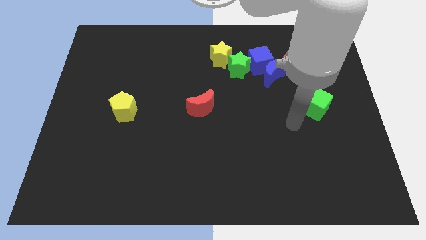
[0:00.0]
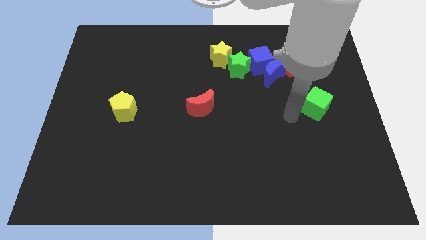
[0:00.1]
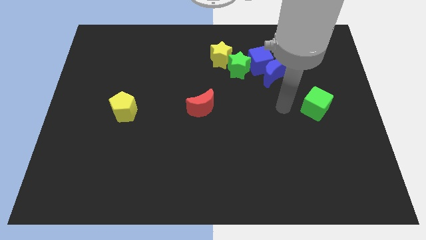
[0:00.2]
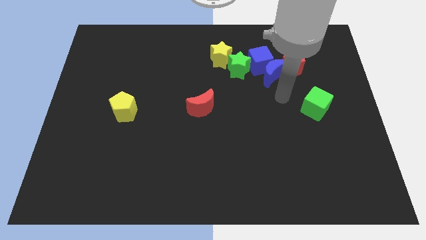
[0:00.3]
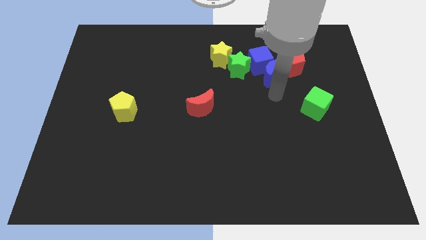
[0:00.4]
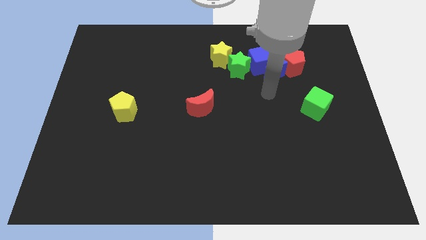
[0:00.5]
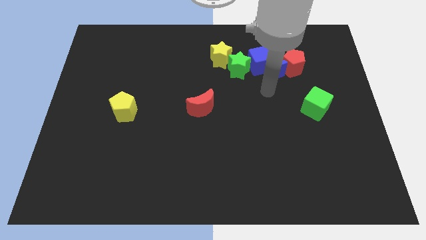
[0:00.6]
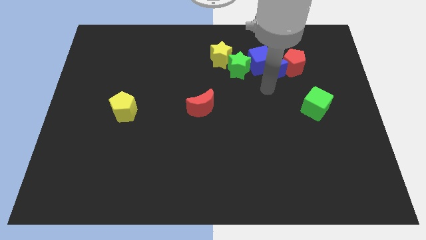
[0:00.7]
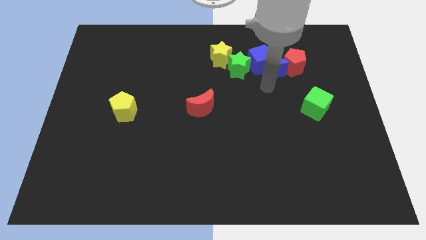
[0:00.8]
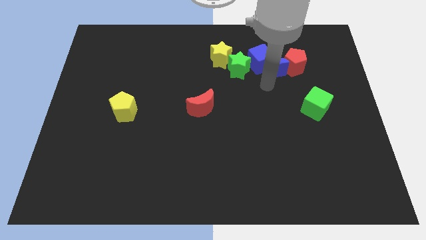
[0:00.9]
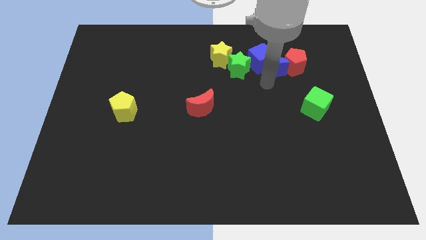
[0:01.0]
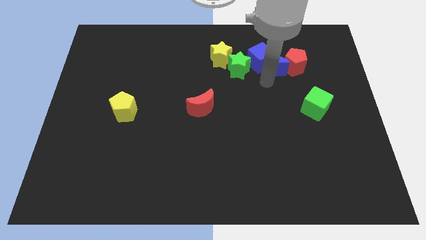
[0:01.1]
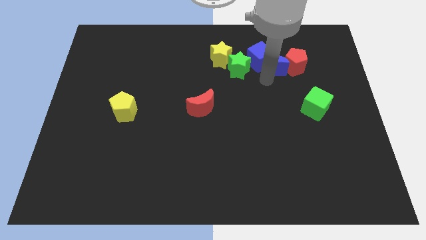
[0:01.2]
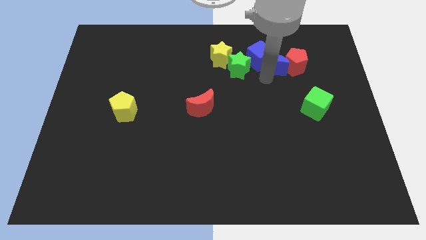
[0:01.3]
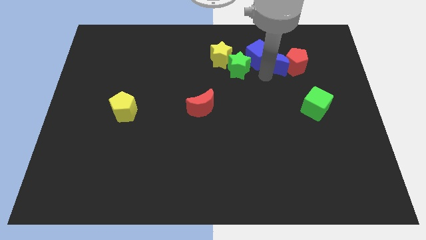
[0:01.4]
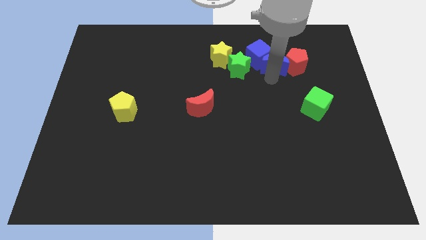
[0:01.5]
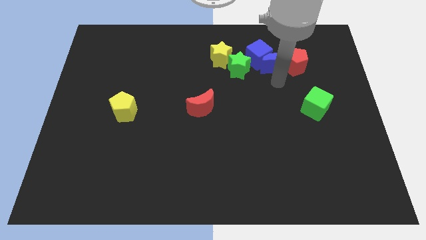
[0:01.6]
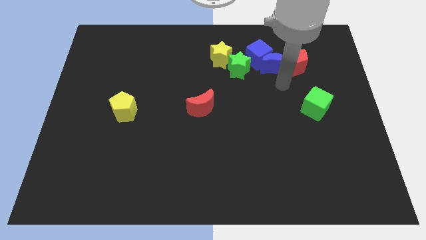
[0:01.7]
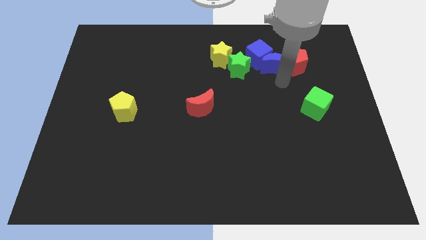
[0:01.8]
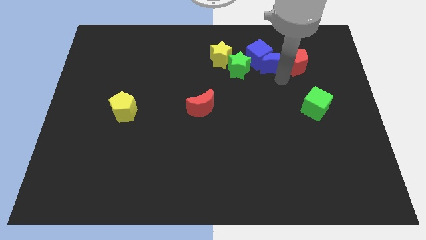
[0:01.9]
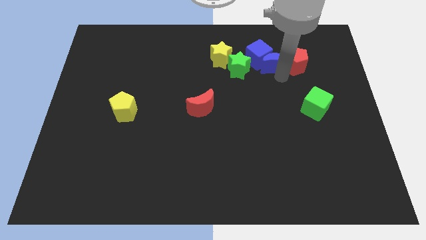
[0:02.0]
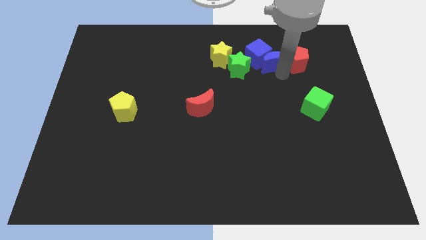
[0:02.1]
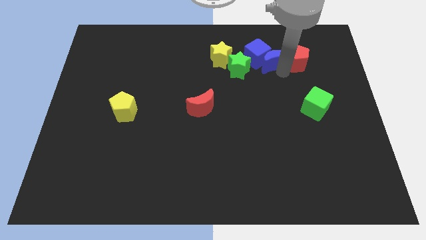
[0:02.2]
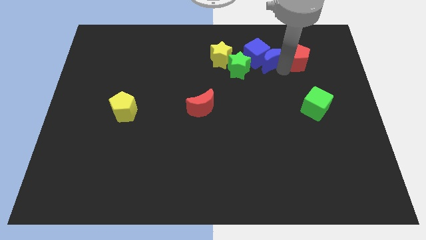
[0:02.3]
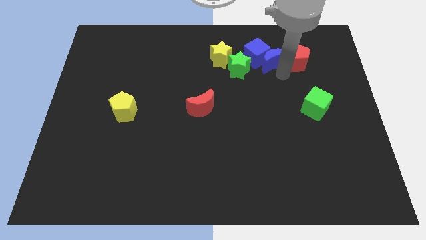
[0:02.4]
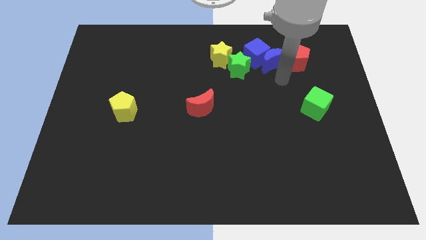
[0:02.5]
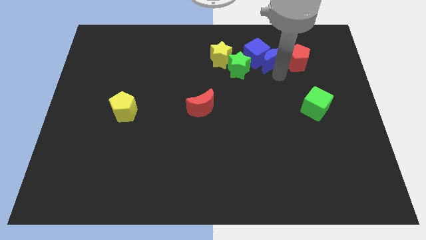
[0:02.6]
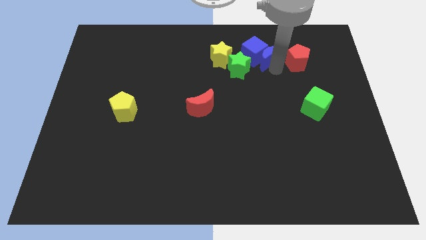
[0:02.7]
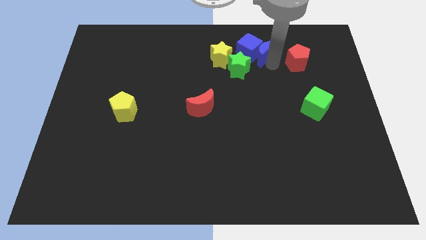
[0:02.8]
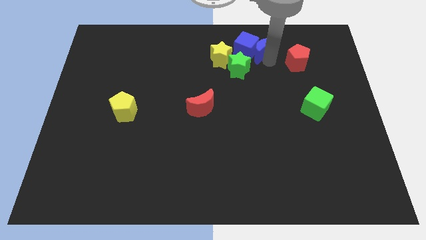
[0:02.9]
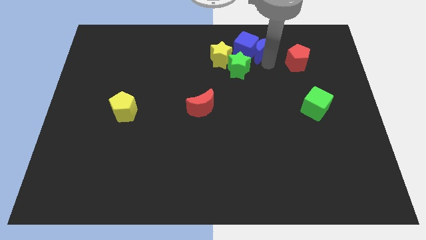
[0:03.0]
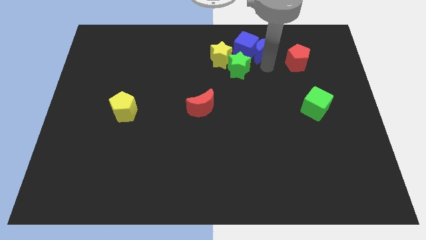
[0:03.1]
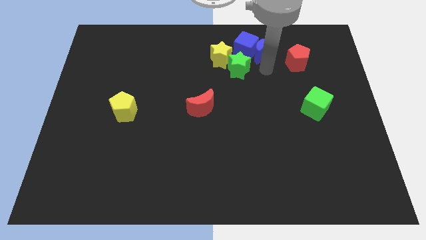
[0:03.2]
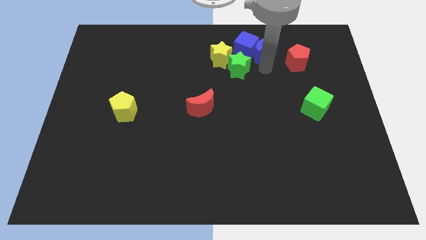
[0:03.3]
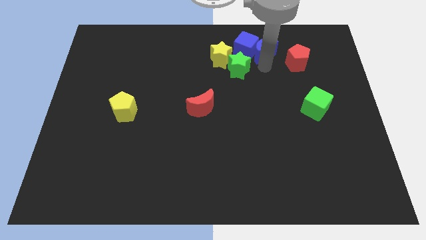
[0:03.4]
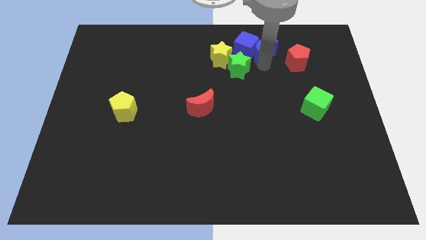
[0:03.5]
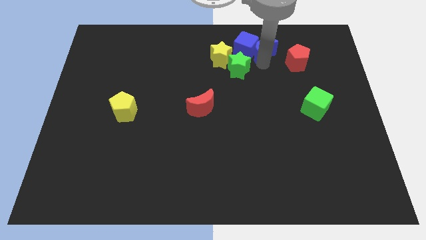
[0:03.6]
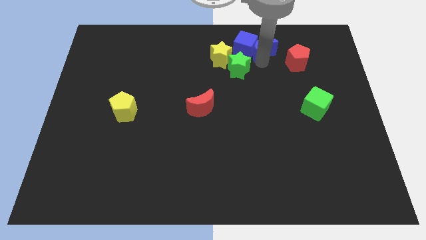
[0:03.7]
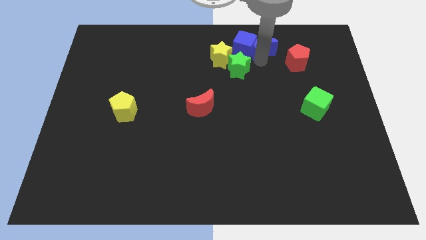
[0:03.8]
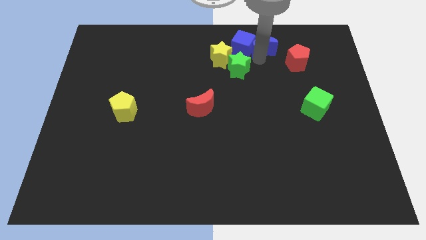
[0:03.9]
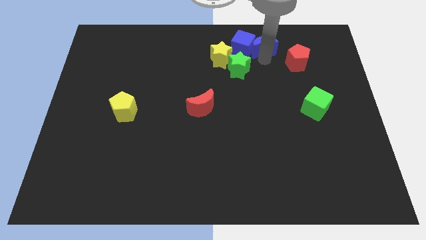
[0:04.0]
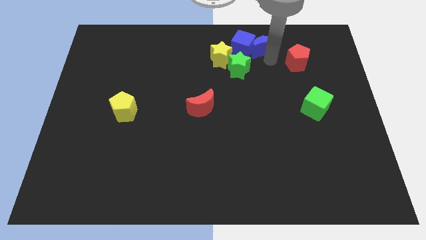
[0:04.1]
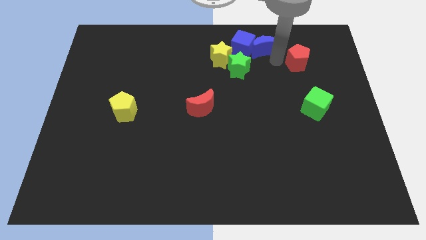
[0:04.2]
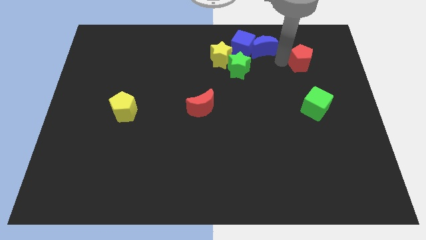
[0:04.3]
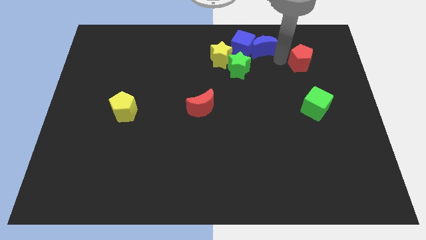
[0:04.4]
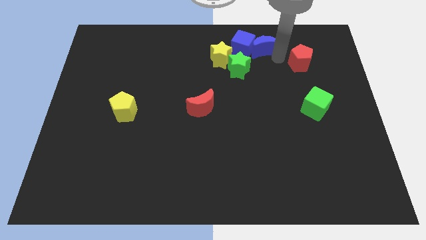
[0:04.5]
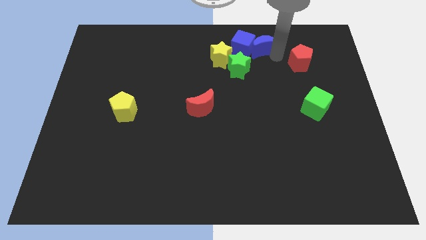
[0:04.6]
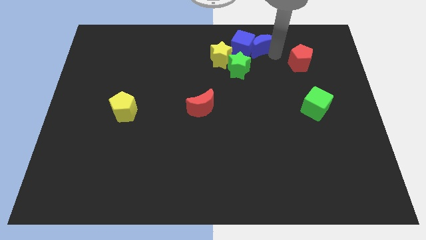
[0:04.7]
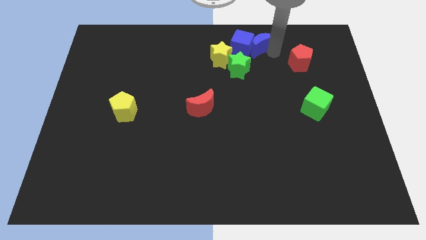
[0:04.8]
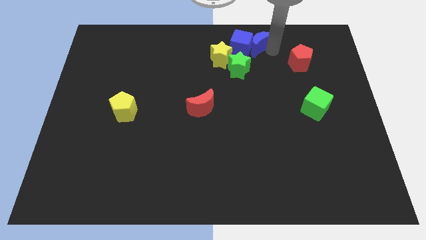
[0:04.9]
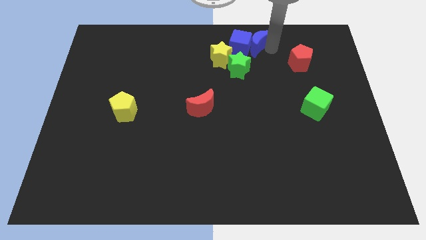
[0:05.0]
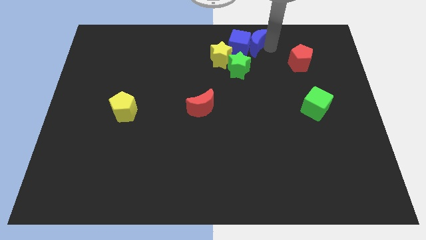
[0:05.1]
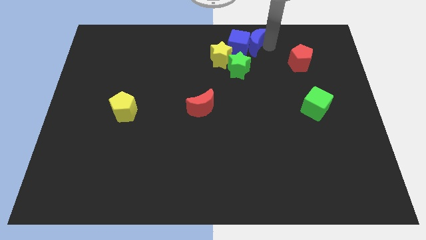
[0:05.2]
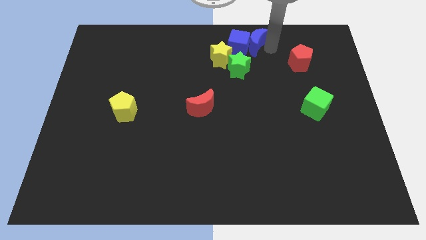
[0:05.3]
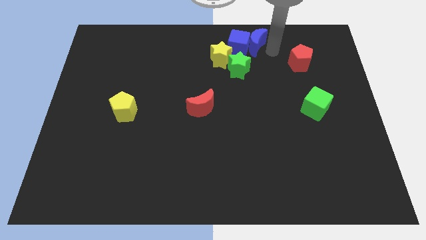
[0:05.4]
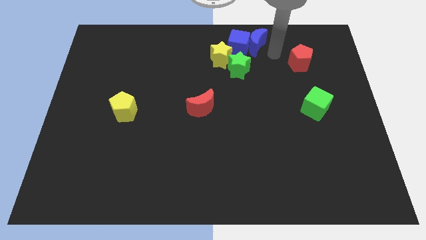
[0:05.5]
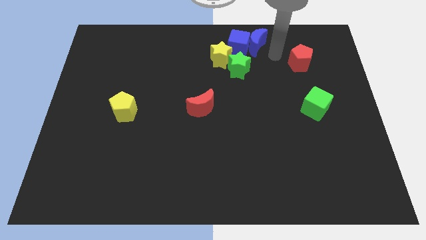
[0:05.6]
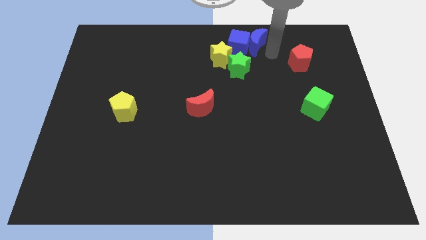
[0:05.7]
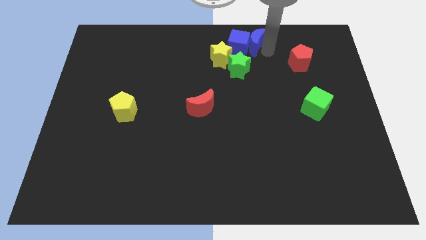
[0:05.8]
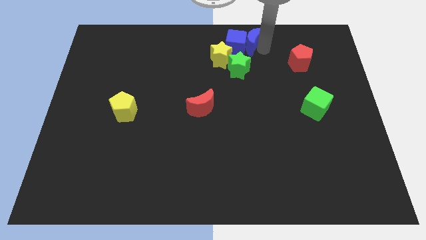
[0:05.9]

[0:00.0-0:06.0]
slide the blue moon to the towards your base
